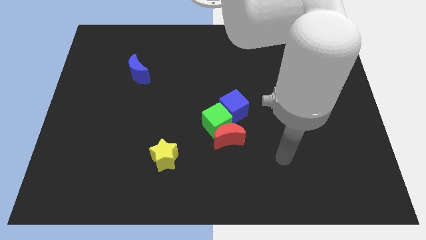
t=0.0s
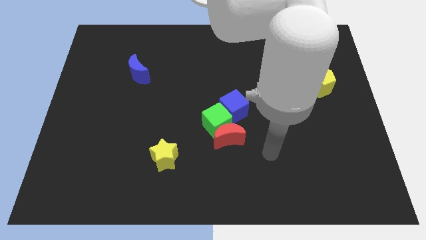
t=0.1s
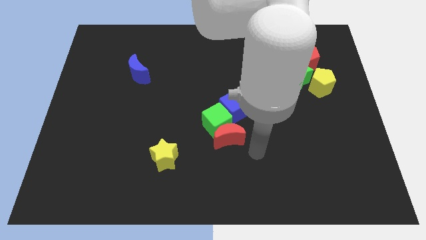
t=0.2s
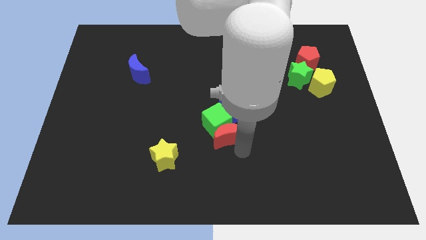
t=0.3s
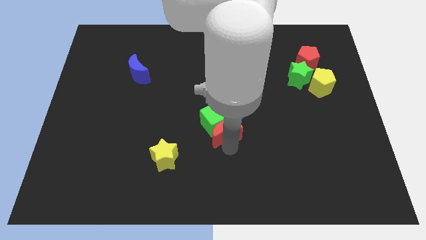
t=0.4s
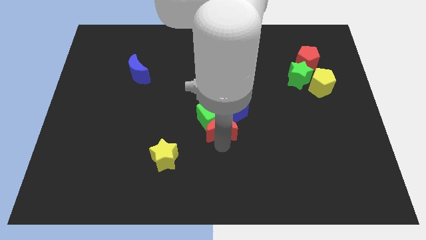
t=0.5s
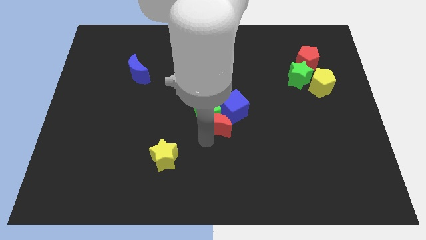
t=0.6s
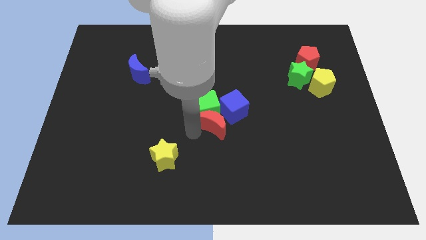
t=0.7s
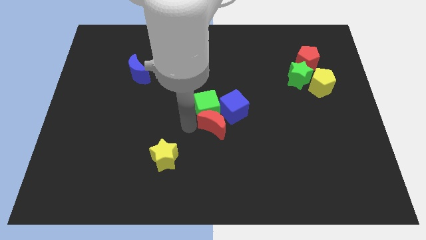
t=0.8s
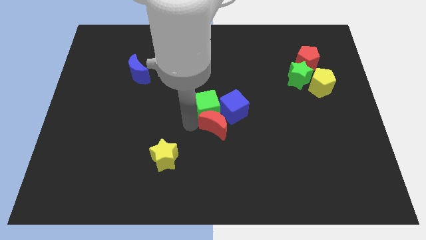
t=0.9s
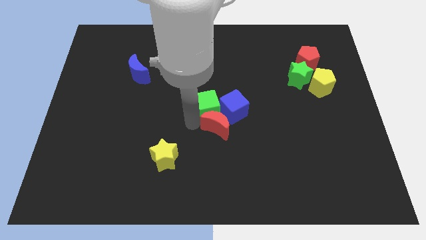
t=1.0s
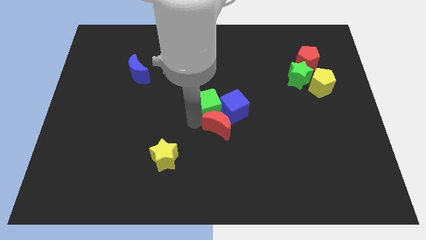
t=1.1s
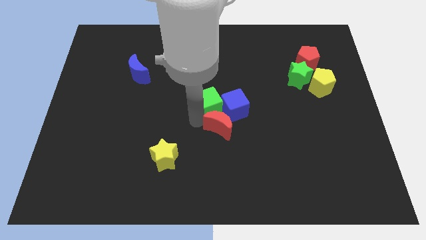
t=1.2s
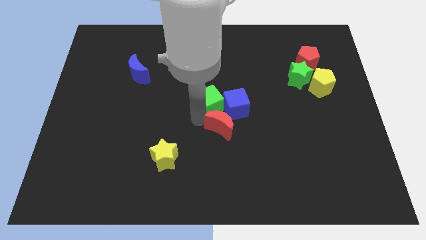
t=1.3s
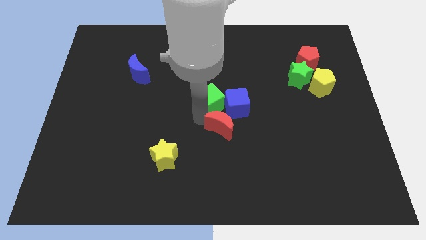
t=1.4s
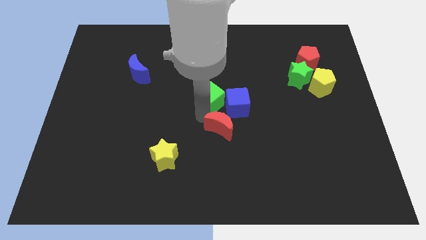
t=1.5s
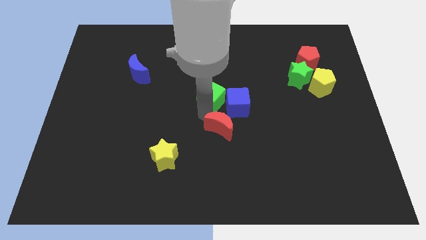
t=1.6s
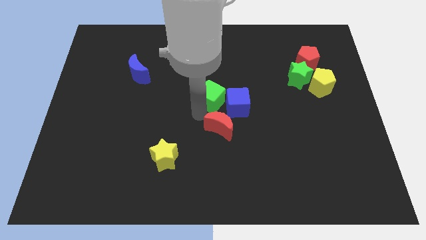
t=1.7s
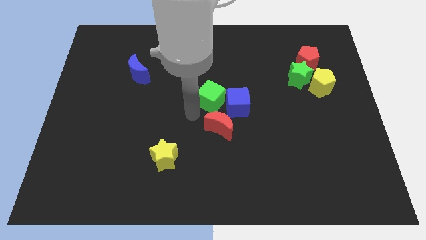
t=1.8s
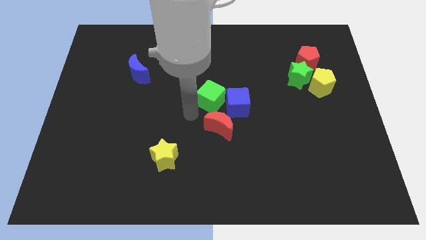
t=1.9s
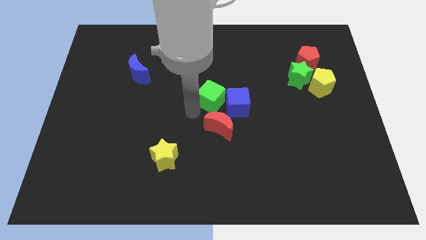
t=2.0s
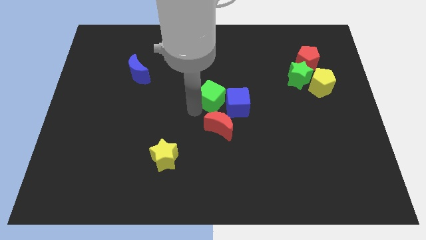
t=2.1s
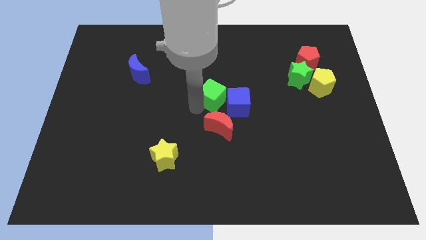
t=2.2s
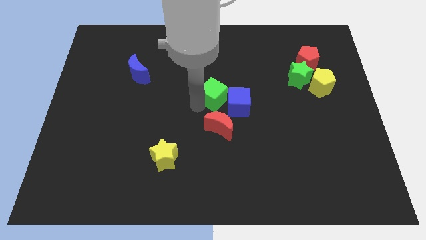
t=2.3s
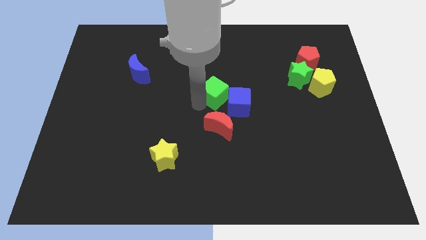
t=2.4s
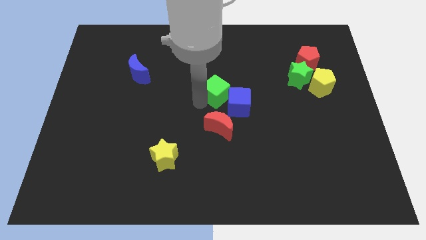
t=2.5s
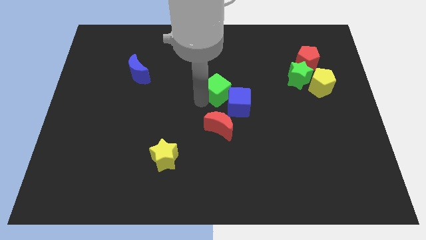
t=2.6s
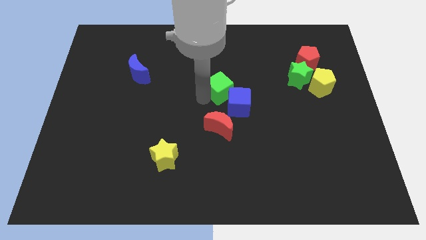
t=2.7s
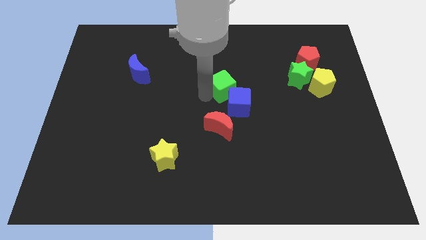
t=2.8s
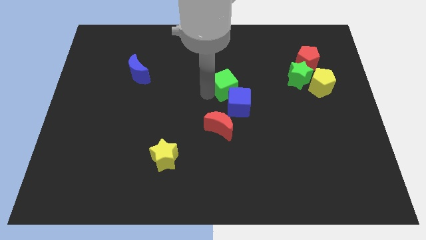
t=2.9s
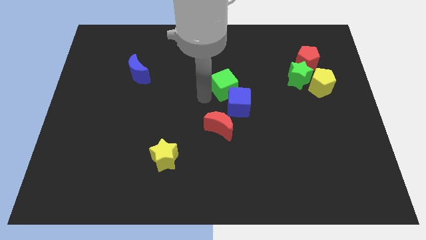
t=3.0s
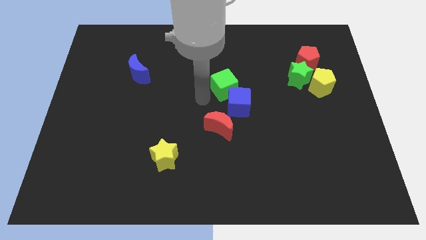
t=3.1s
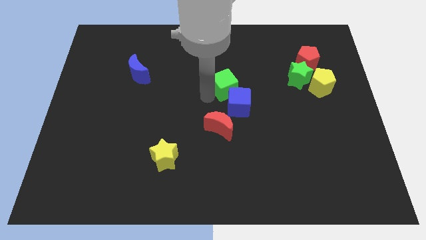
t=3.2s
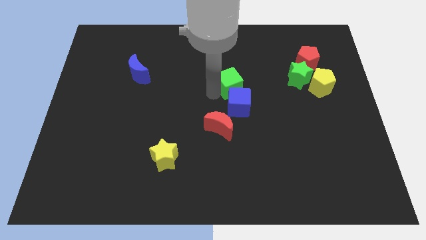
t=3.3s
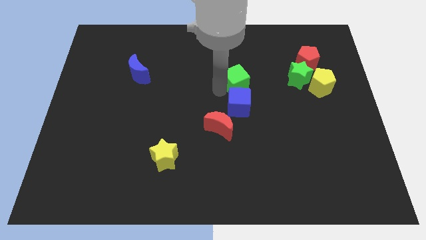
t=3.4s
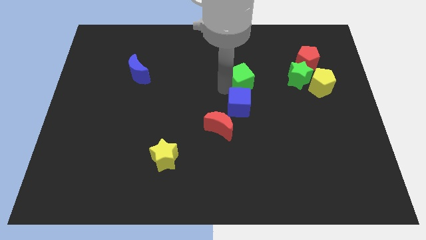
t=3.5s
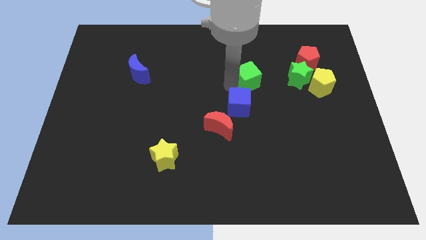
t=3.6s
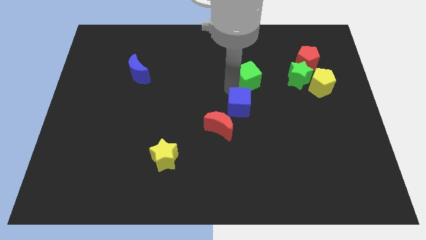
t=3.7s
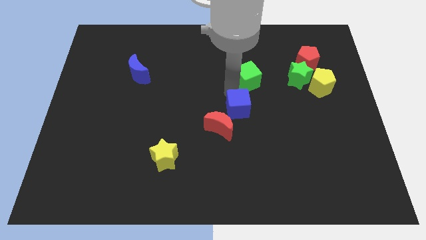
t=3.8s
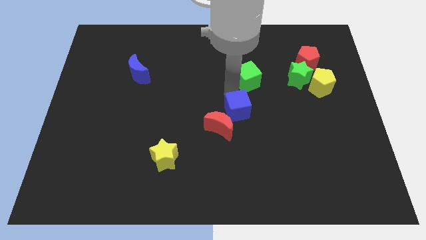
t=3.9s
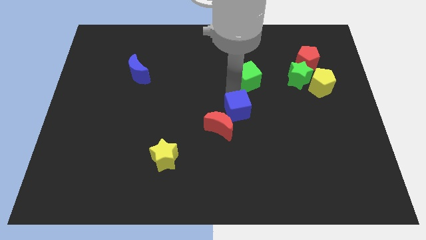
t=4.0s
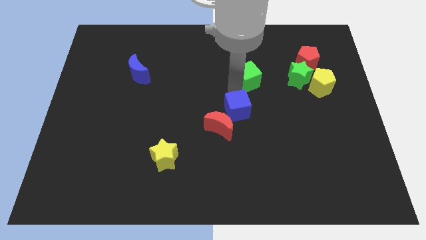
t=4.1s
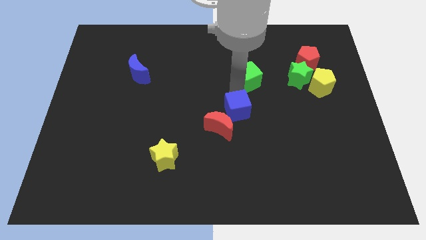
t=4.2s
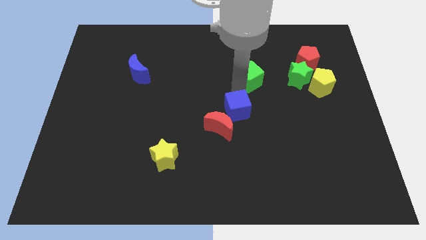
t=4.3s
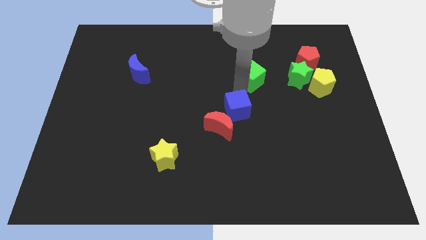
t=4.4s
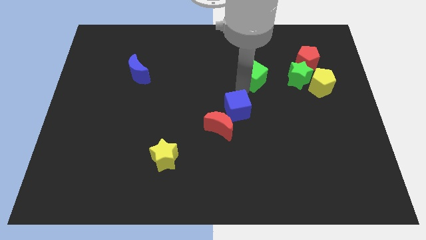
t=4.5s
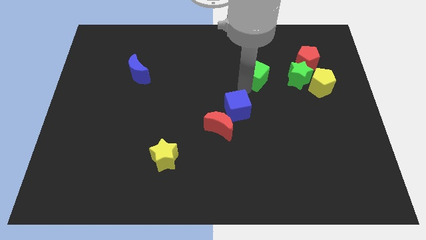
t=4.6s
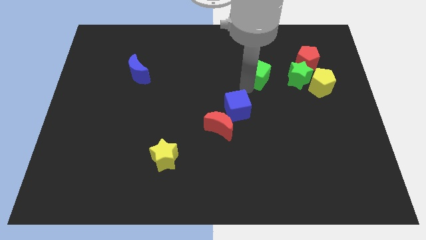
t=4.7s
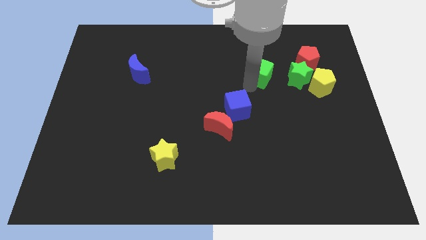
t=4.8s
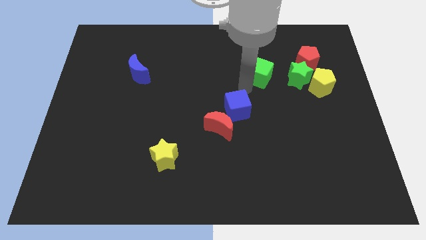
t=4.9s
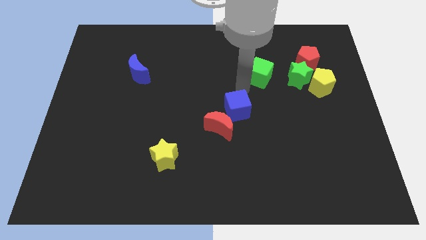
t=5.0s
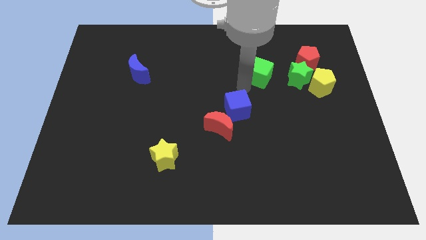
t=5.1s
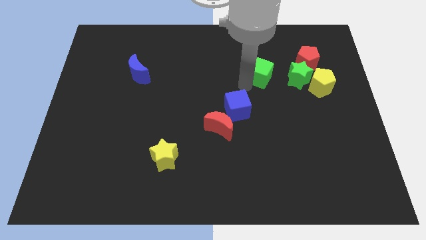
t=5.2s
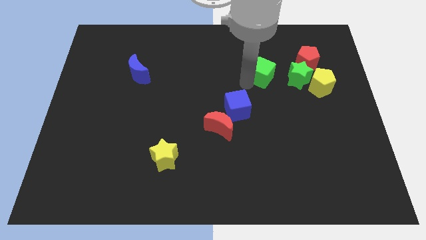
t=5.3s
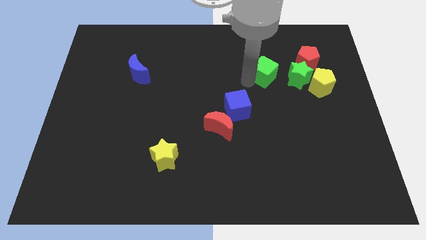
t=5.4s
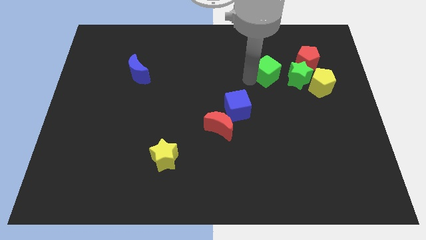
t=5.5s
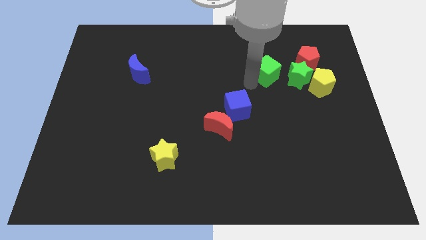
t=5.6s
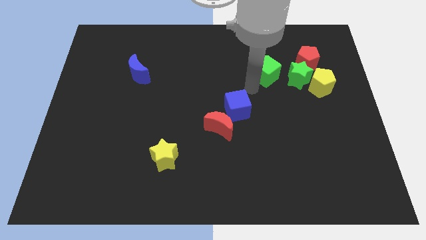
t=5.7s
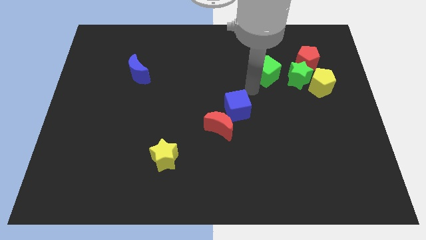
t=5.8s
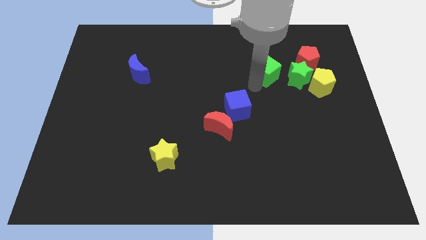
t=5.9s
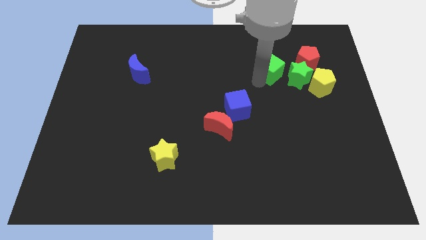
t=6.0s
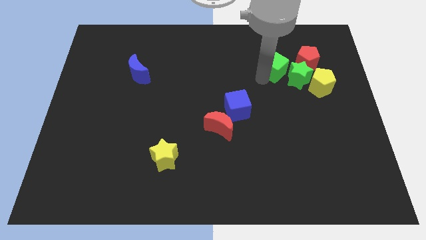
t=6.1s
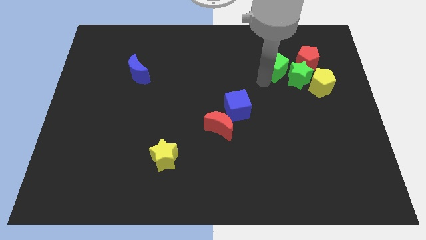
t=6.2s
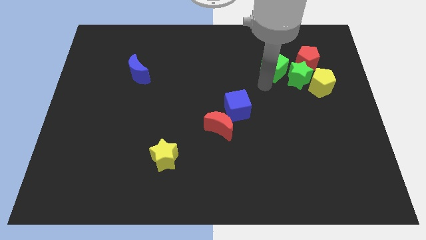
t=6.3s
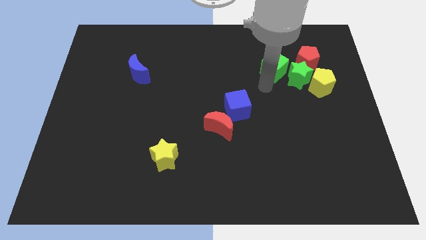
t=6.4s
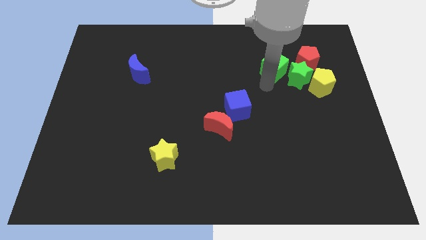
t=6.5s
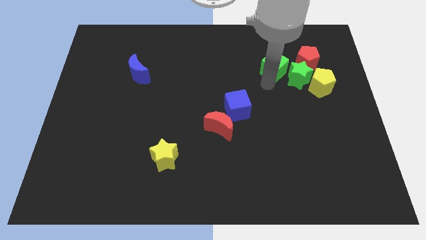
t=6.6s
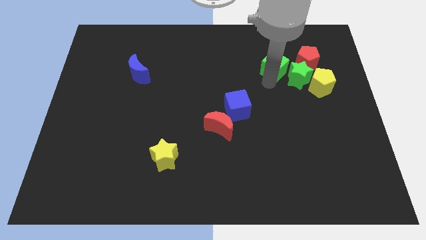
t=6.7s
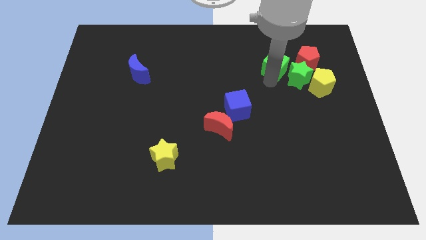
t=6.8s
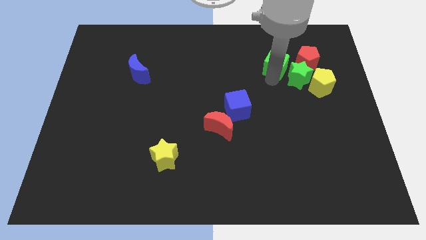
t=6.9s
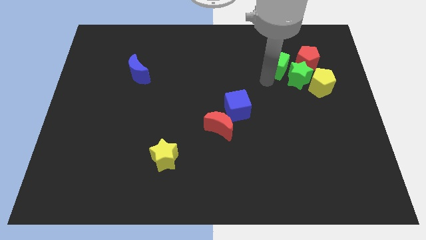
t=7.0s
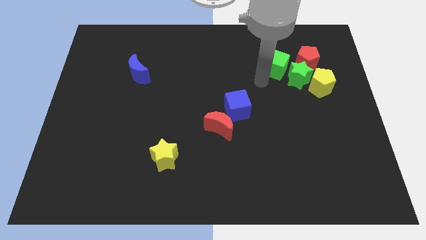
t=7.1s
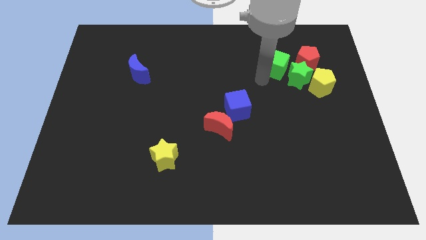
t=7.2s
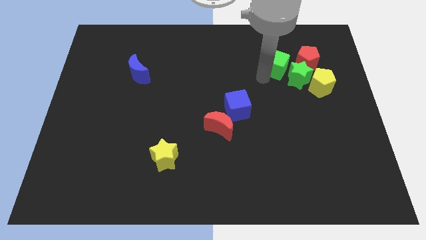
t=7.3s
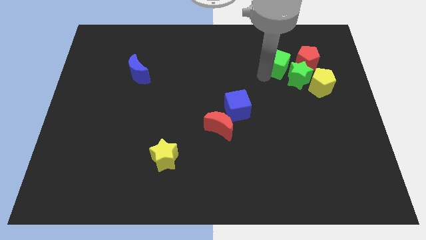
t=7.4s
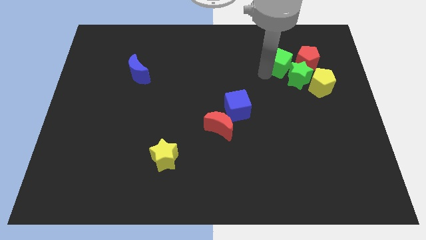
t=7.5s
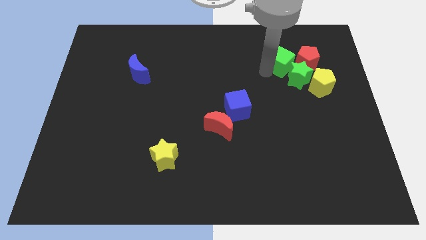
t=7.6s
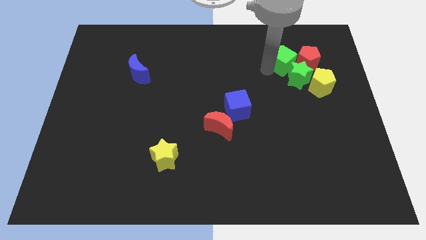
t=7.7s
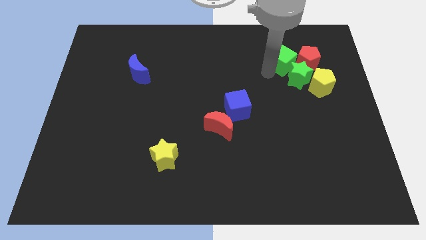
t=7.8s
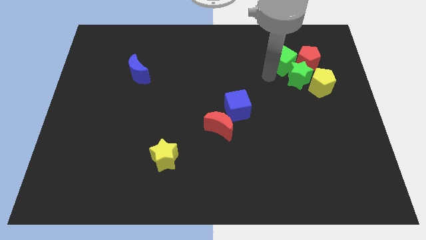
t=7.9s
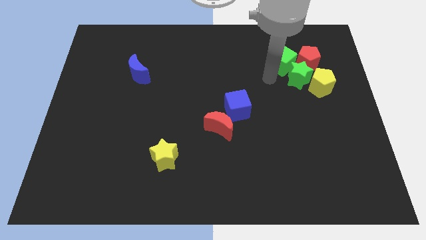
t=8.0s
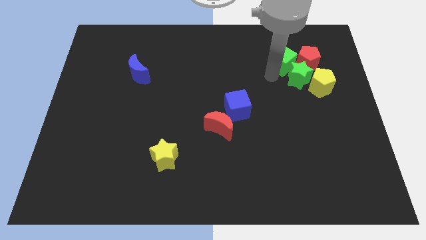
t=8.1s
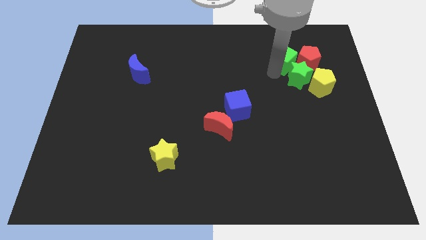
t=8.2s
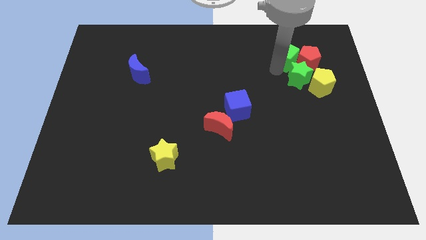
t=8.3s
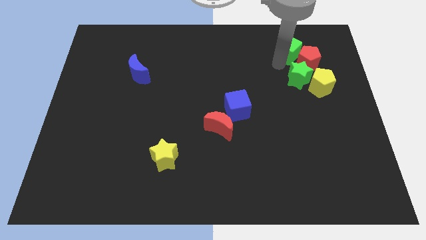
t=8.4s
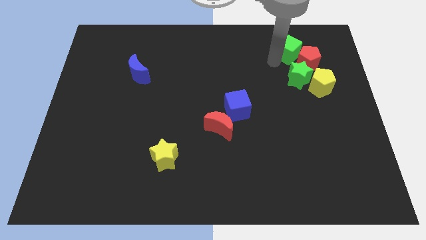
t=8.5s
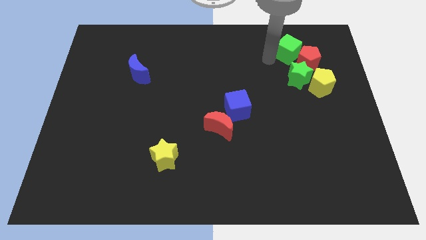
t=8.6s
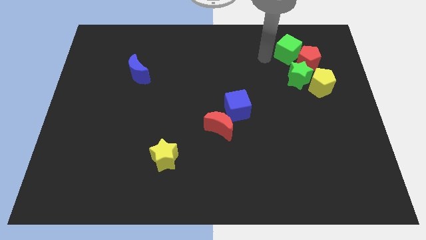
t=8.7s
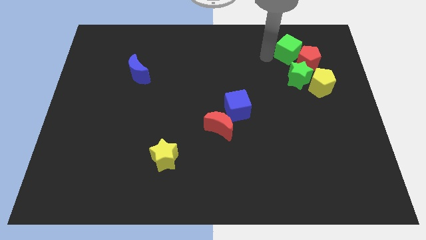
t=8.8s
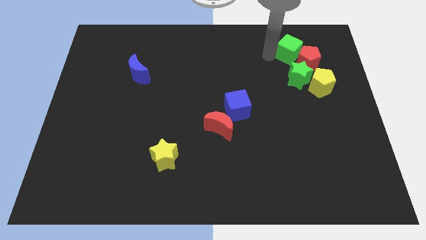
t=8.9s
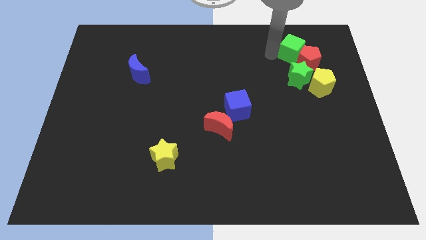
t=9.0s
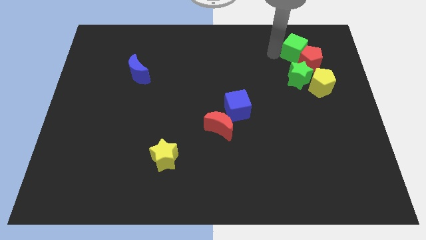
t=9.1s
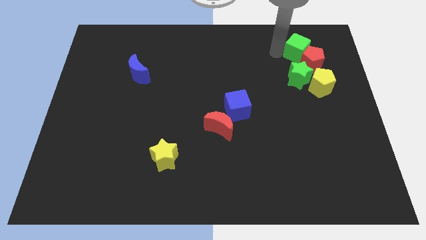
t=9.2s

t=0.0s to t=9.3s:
push the green cube to the top of the yellow pentagon
